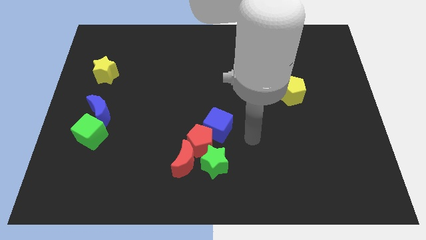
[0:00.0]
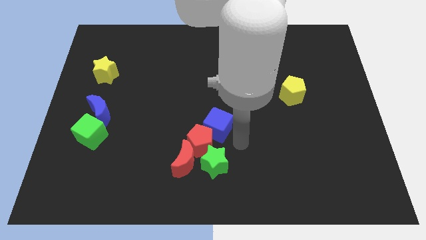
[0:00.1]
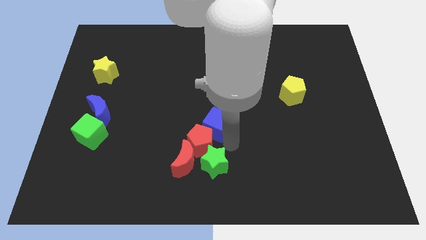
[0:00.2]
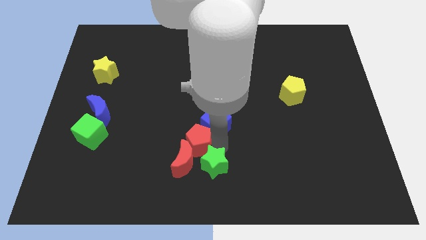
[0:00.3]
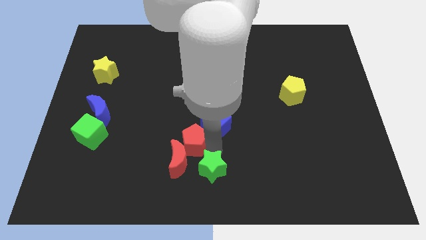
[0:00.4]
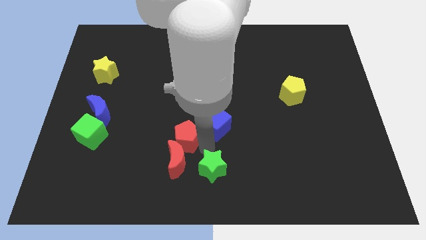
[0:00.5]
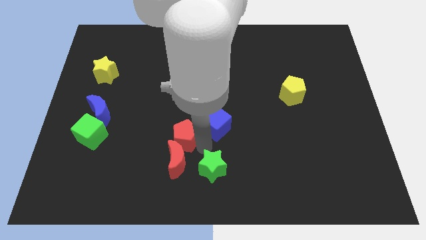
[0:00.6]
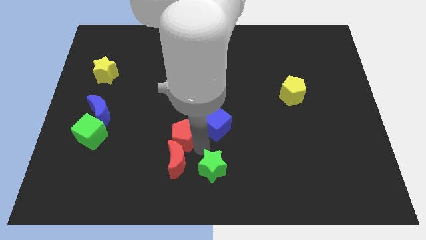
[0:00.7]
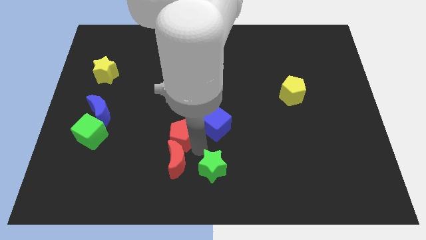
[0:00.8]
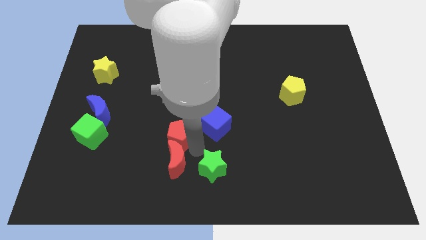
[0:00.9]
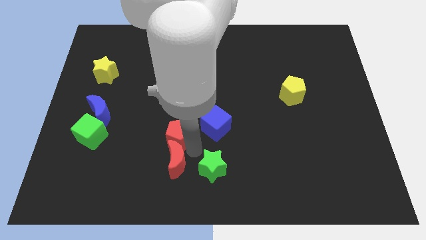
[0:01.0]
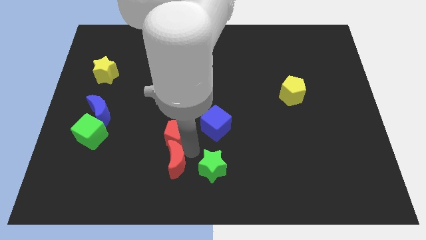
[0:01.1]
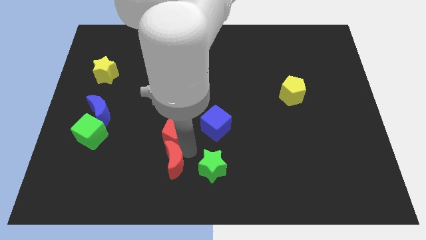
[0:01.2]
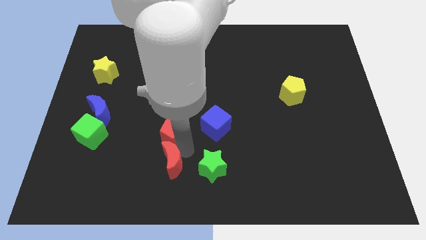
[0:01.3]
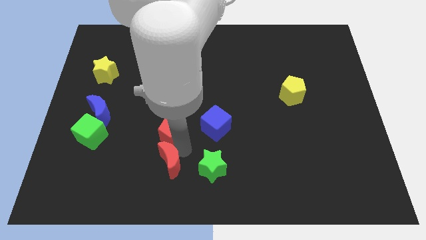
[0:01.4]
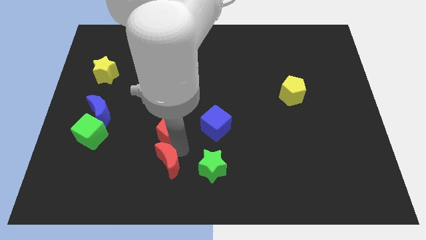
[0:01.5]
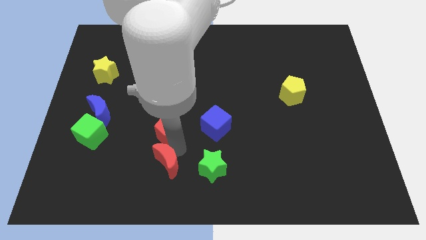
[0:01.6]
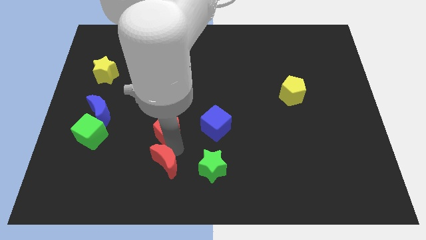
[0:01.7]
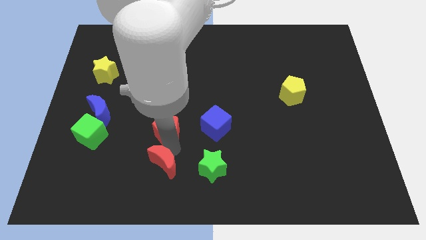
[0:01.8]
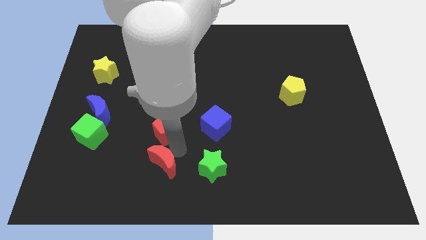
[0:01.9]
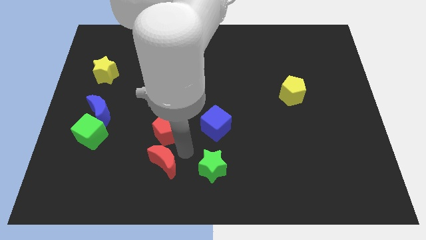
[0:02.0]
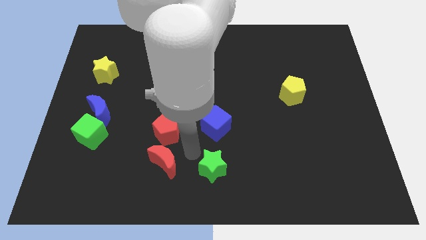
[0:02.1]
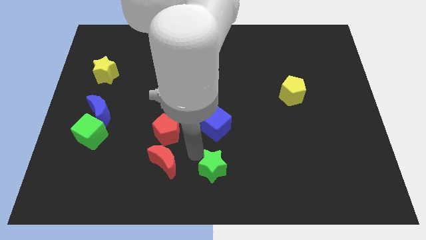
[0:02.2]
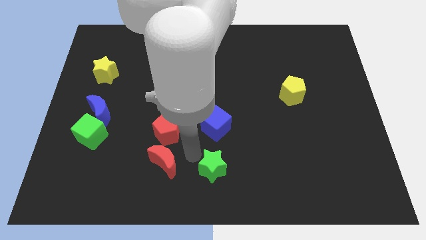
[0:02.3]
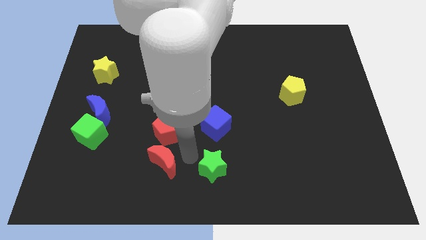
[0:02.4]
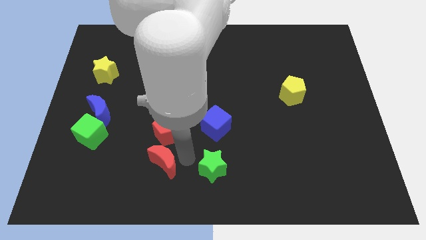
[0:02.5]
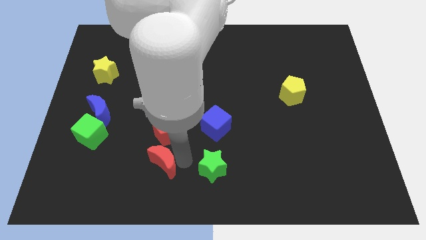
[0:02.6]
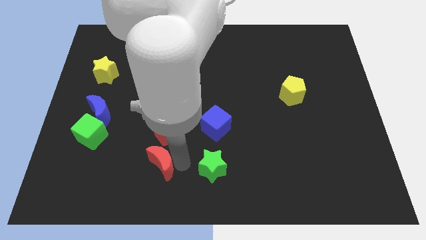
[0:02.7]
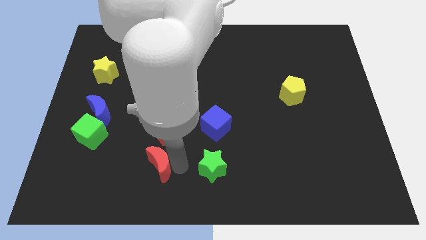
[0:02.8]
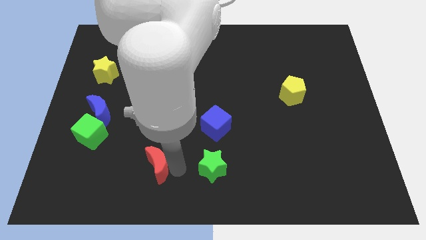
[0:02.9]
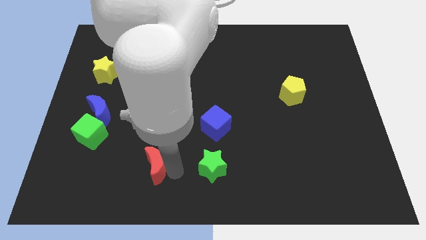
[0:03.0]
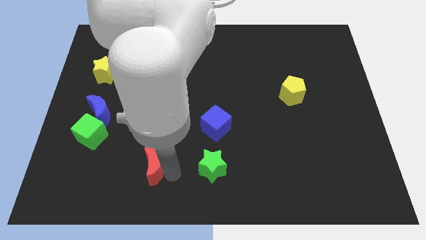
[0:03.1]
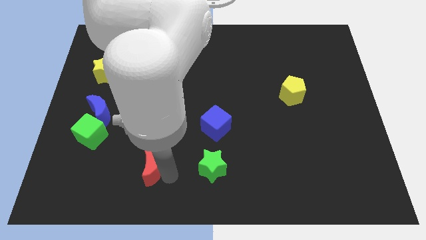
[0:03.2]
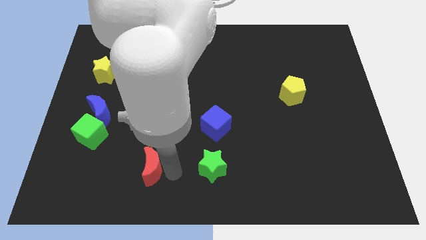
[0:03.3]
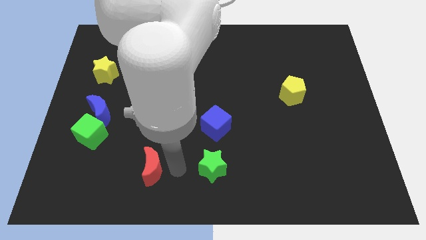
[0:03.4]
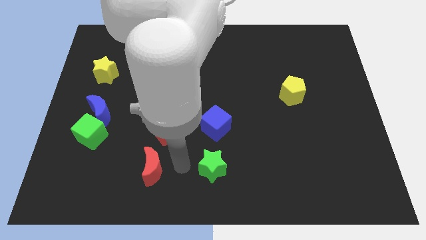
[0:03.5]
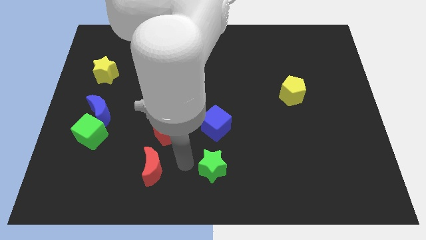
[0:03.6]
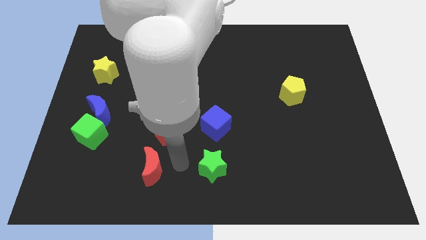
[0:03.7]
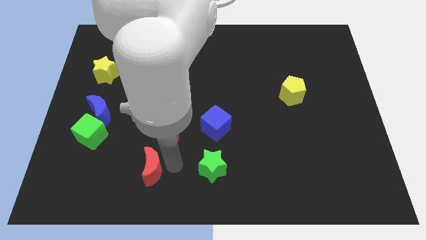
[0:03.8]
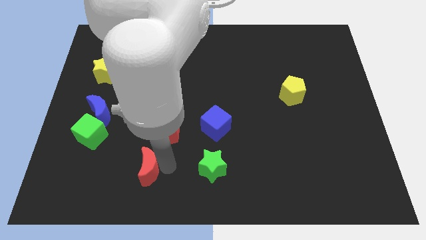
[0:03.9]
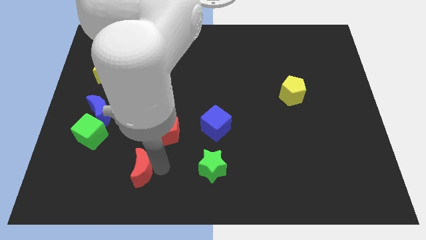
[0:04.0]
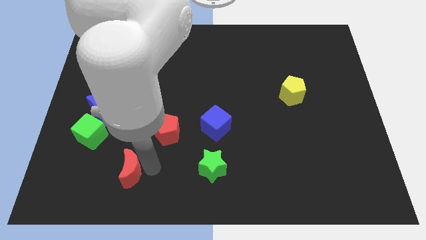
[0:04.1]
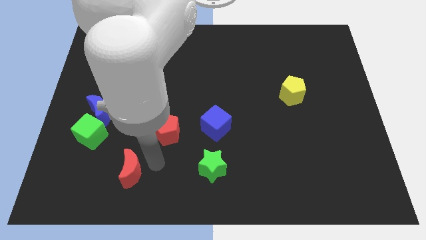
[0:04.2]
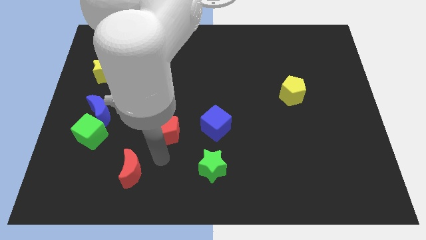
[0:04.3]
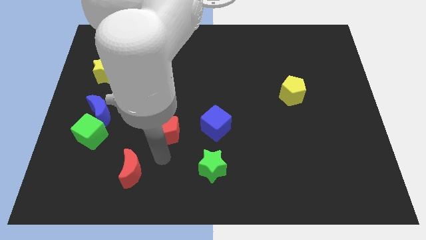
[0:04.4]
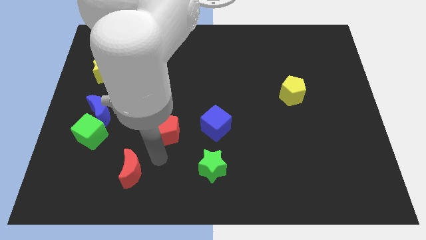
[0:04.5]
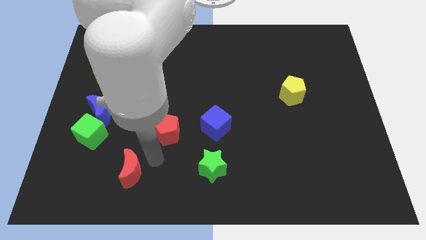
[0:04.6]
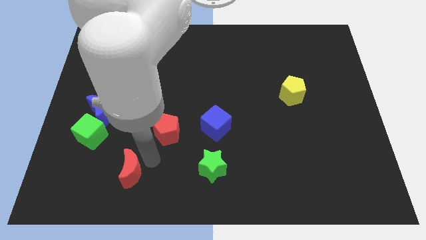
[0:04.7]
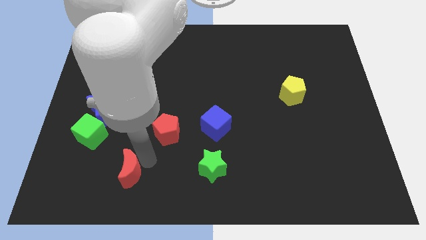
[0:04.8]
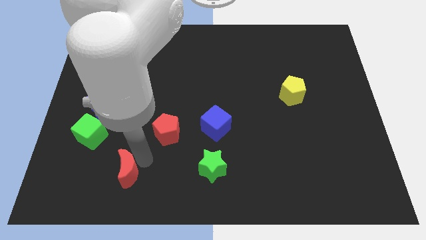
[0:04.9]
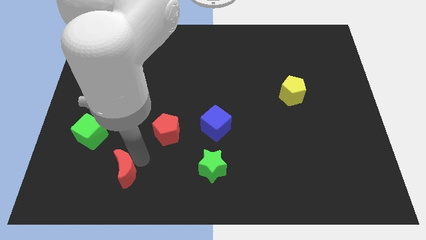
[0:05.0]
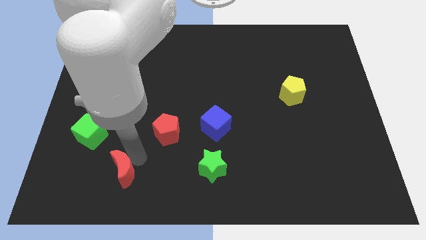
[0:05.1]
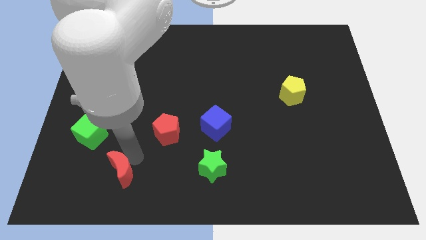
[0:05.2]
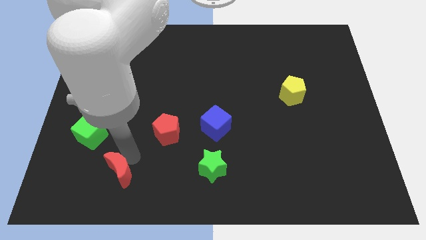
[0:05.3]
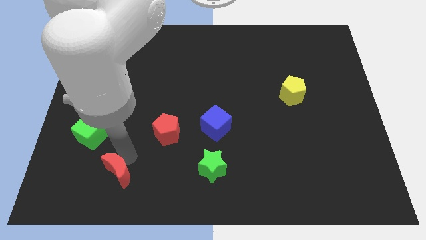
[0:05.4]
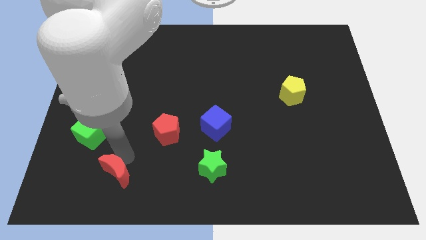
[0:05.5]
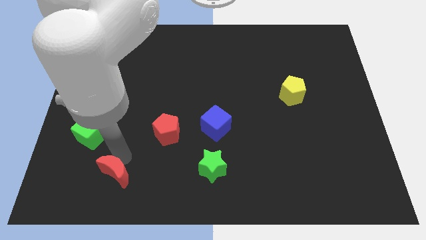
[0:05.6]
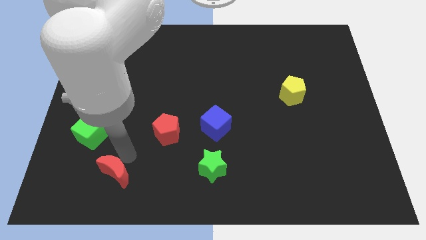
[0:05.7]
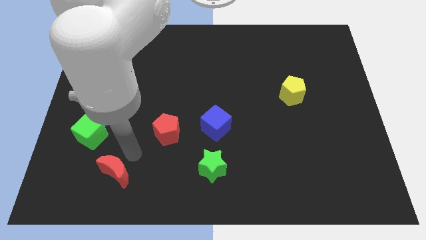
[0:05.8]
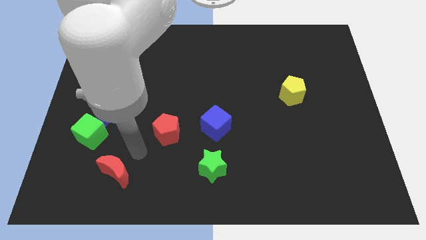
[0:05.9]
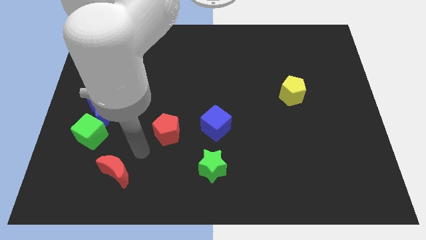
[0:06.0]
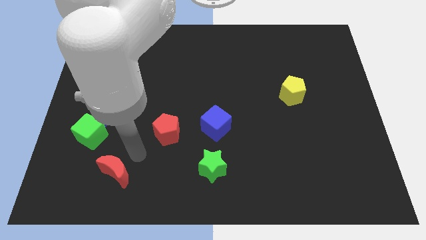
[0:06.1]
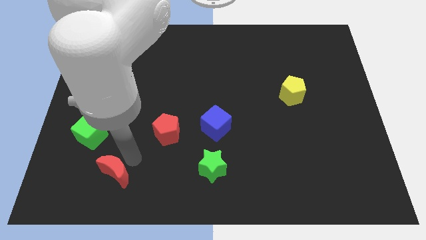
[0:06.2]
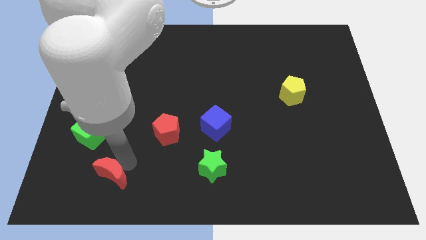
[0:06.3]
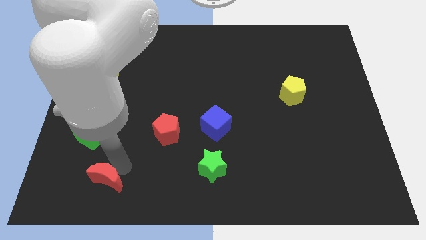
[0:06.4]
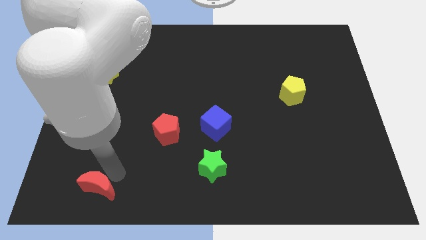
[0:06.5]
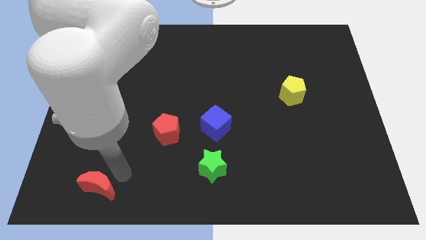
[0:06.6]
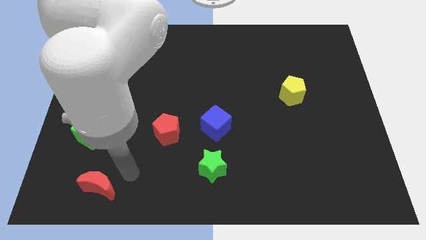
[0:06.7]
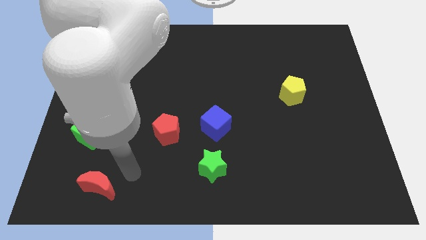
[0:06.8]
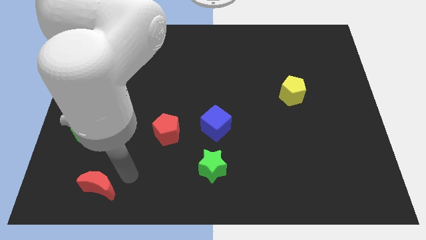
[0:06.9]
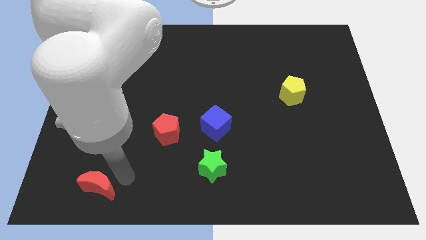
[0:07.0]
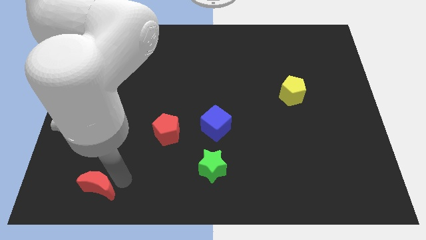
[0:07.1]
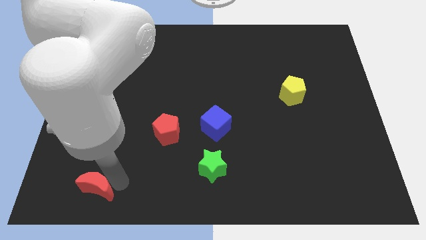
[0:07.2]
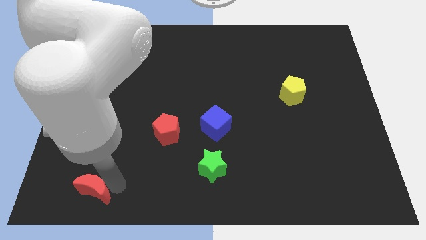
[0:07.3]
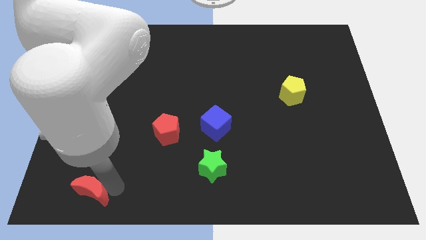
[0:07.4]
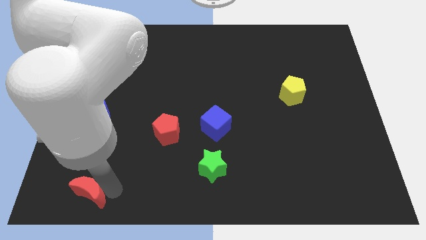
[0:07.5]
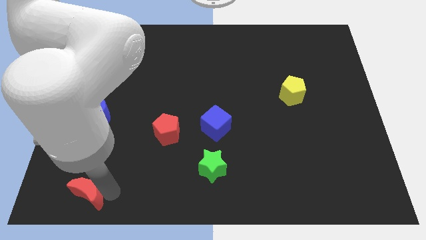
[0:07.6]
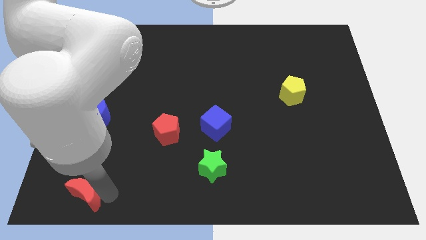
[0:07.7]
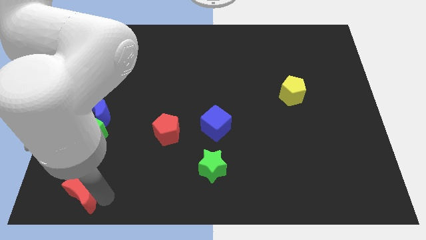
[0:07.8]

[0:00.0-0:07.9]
push the red moon to the lower left corner
